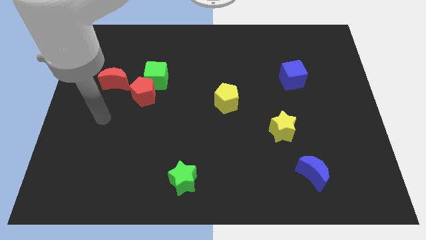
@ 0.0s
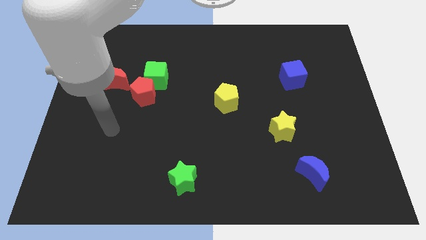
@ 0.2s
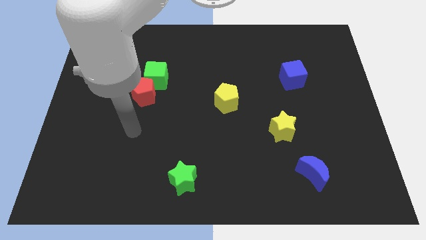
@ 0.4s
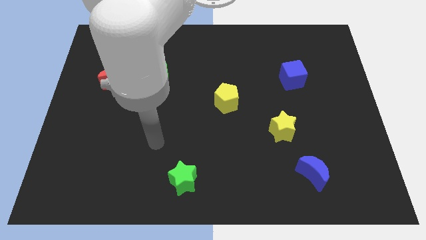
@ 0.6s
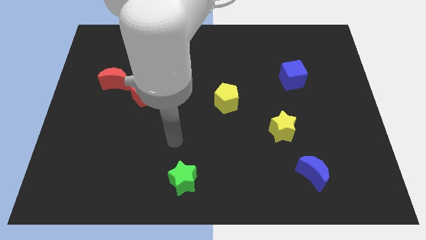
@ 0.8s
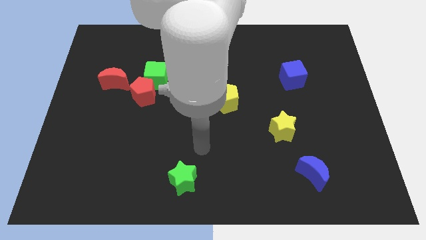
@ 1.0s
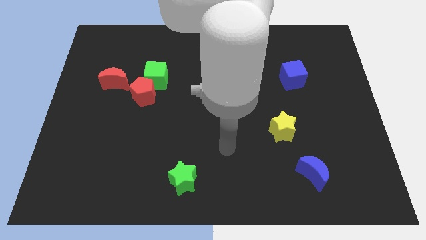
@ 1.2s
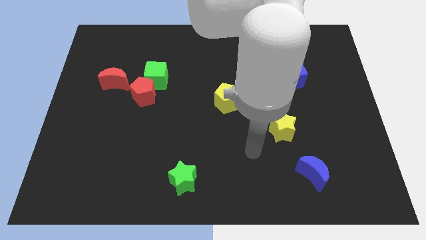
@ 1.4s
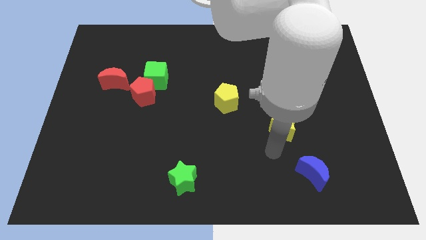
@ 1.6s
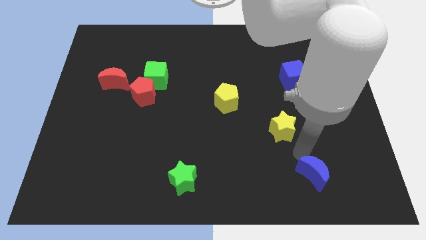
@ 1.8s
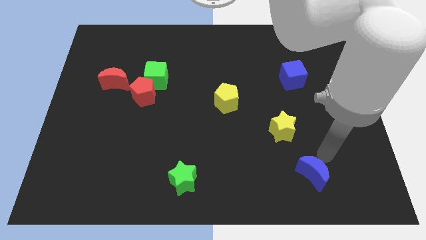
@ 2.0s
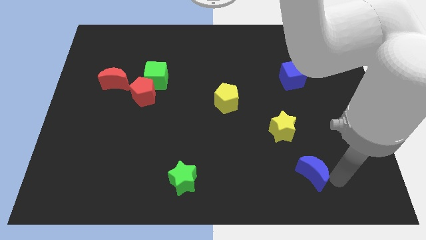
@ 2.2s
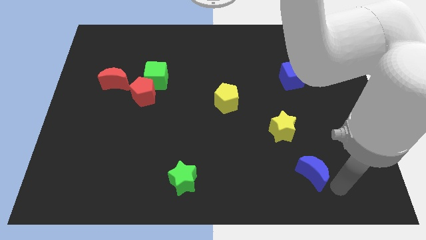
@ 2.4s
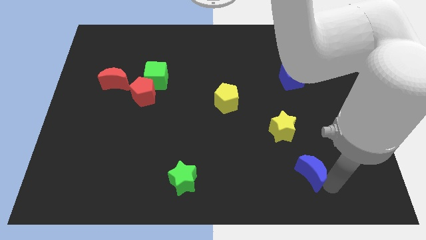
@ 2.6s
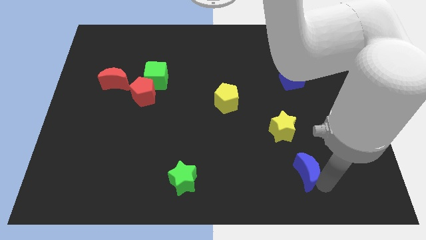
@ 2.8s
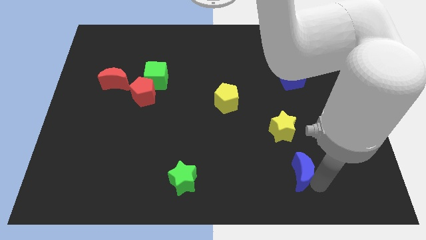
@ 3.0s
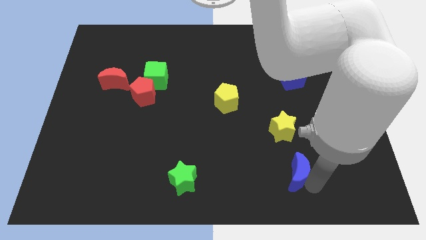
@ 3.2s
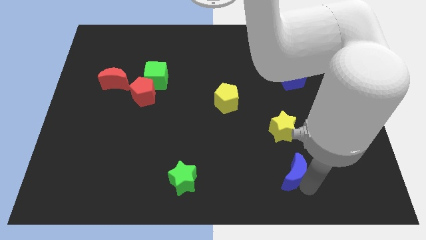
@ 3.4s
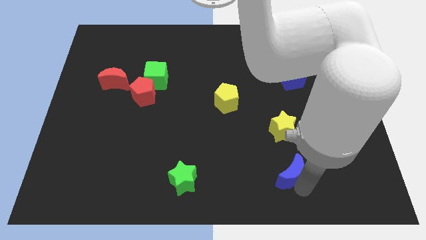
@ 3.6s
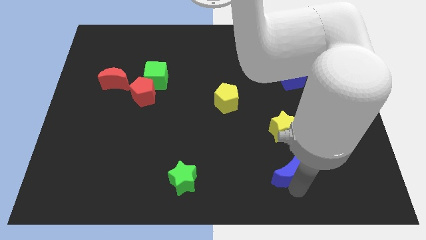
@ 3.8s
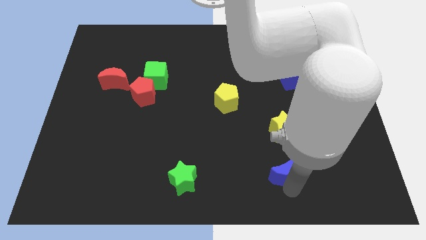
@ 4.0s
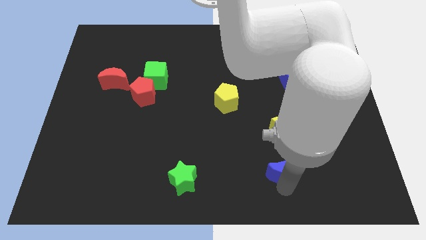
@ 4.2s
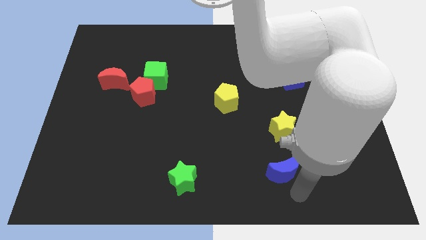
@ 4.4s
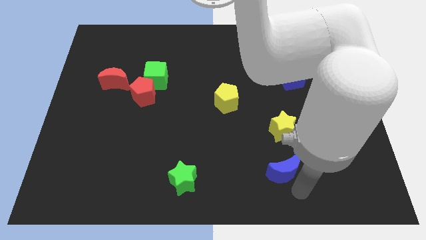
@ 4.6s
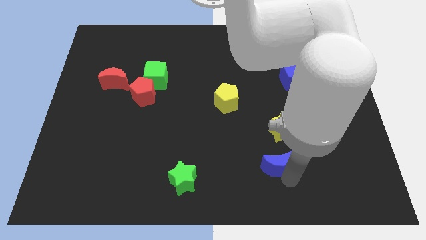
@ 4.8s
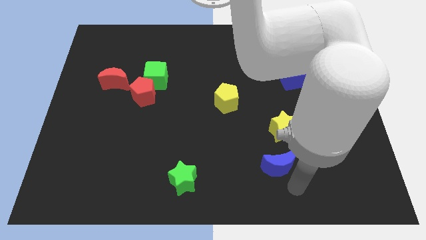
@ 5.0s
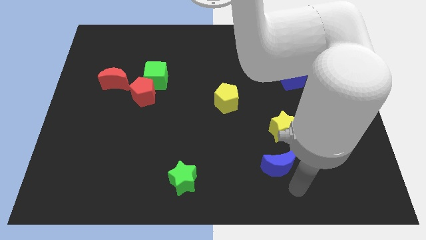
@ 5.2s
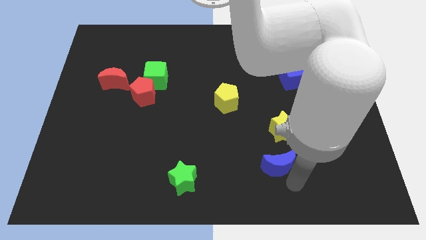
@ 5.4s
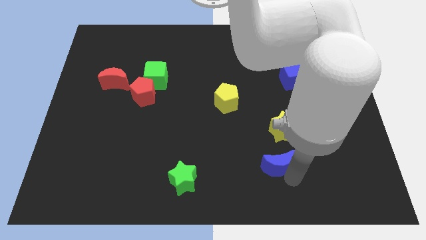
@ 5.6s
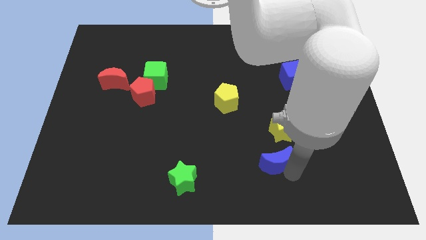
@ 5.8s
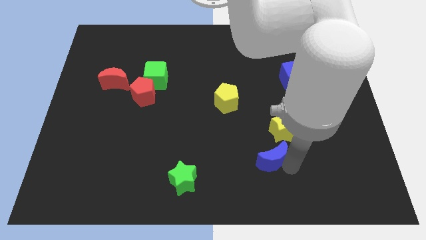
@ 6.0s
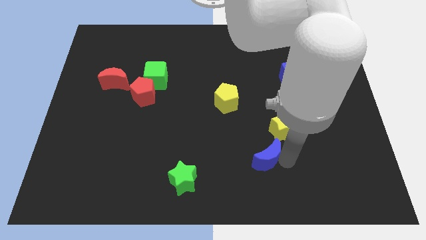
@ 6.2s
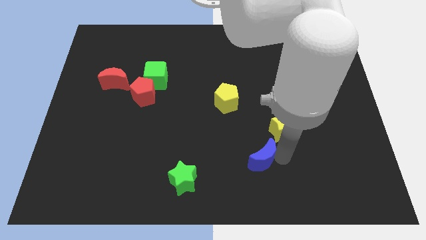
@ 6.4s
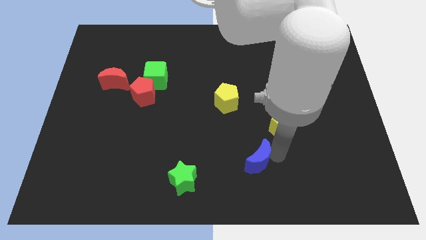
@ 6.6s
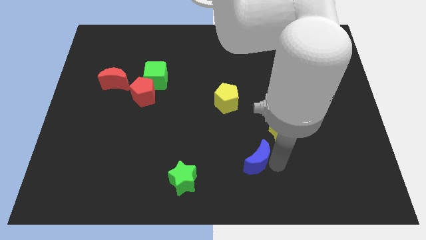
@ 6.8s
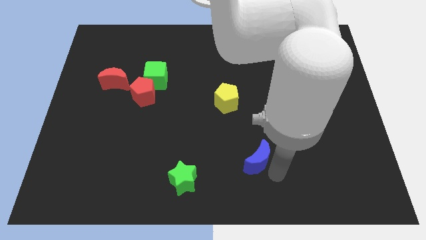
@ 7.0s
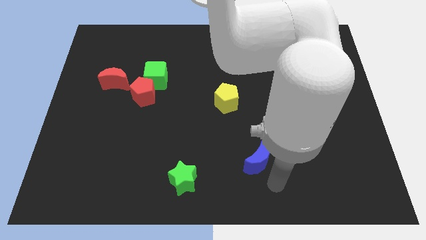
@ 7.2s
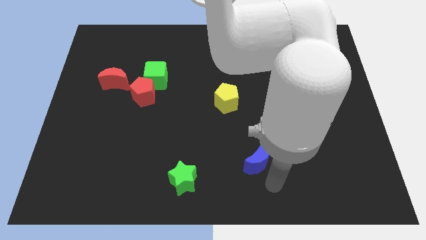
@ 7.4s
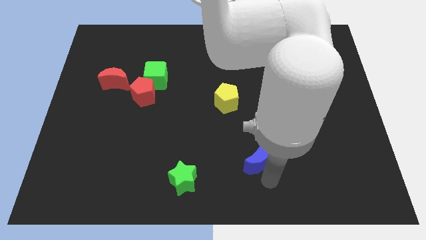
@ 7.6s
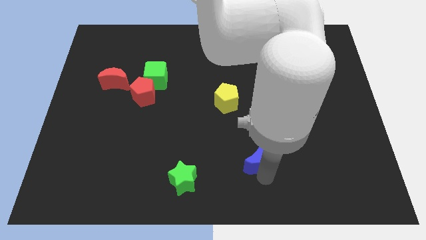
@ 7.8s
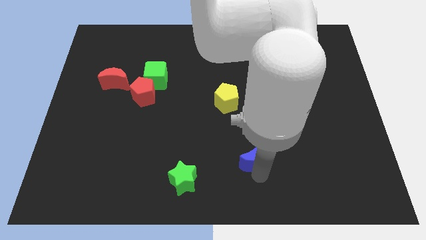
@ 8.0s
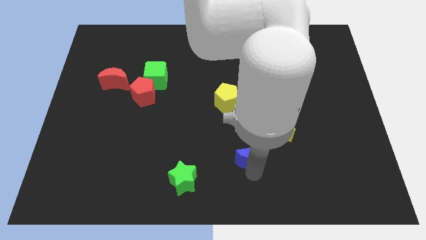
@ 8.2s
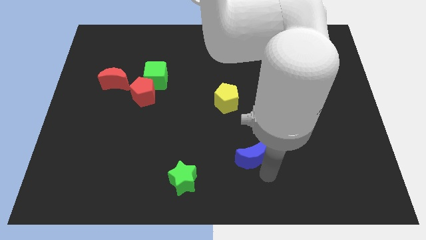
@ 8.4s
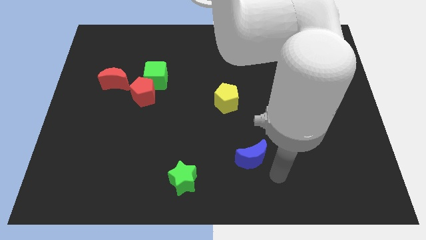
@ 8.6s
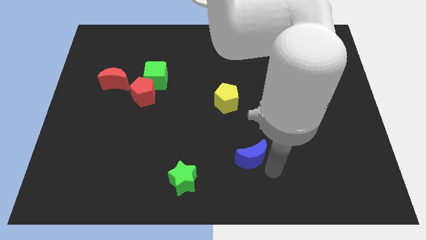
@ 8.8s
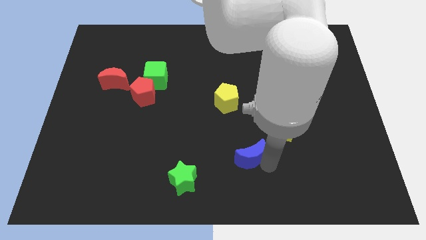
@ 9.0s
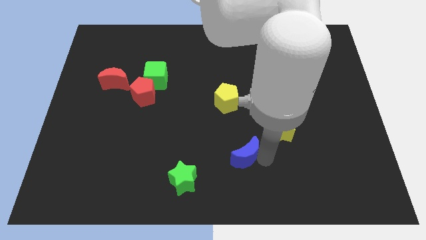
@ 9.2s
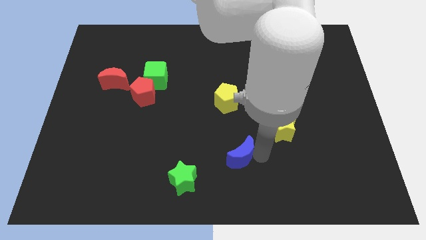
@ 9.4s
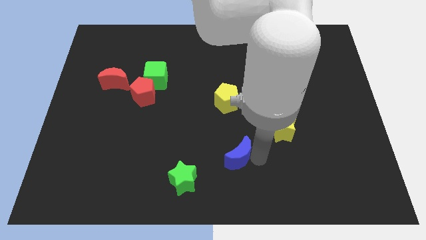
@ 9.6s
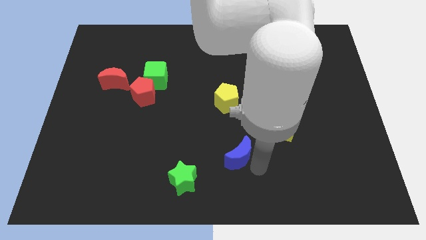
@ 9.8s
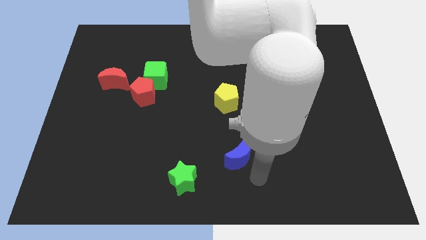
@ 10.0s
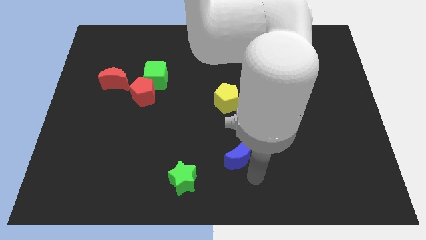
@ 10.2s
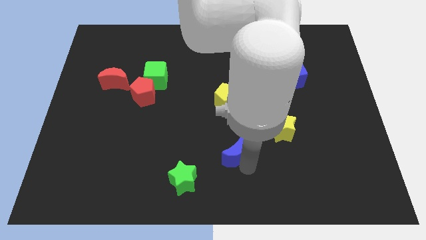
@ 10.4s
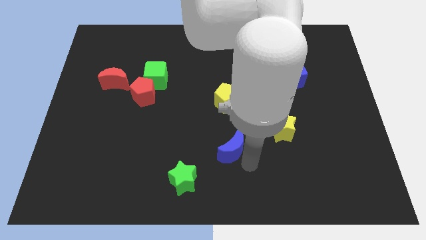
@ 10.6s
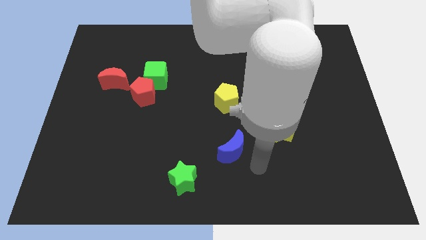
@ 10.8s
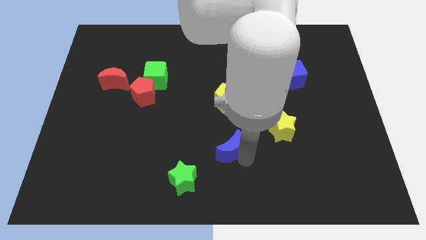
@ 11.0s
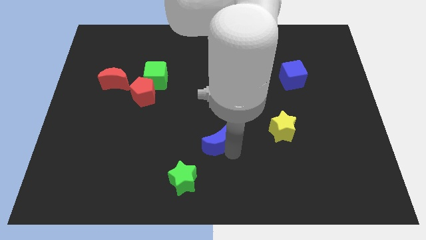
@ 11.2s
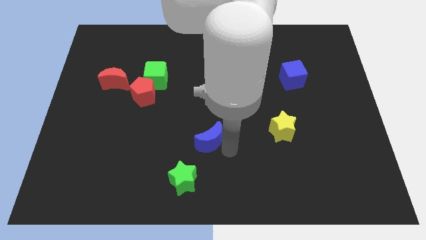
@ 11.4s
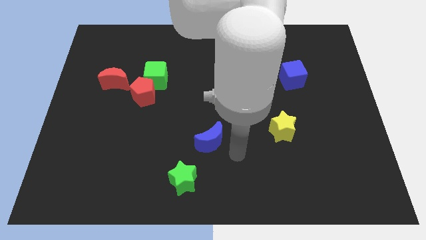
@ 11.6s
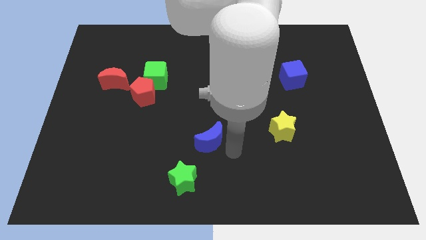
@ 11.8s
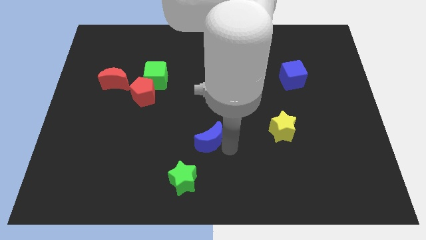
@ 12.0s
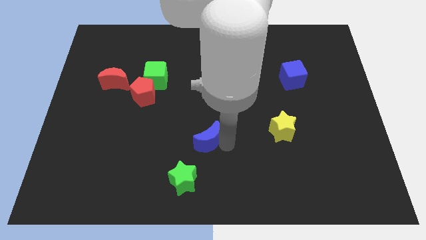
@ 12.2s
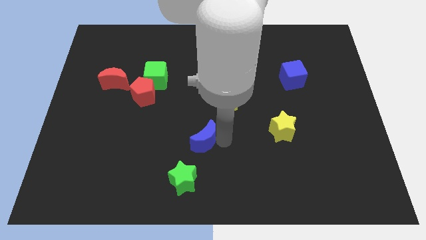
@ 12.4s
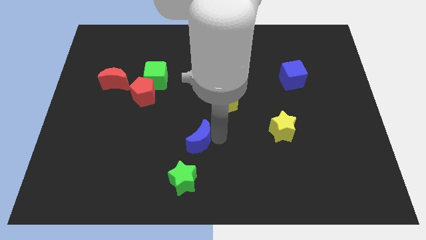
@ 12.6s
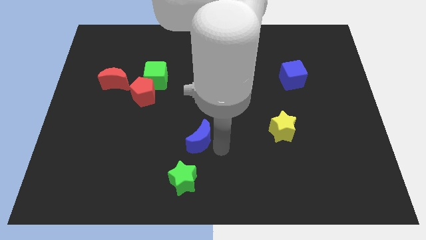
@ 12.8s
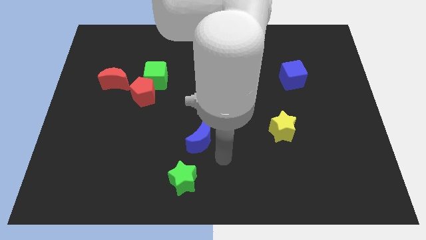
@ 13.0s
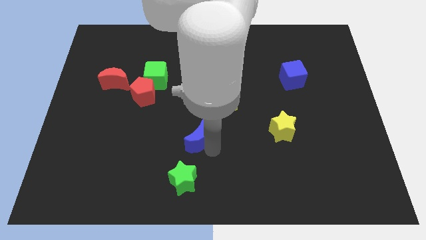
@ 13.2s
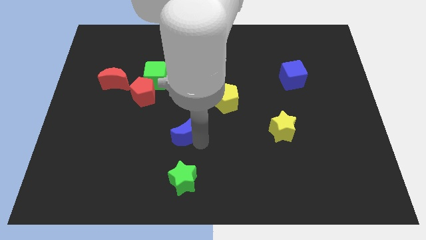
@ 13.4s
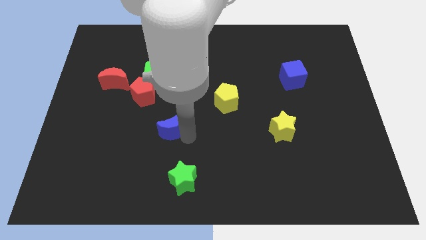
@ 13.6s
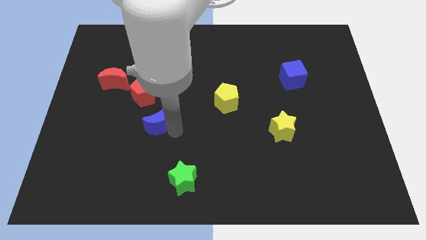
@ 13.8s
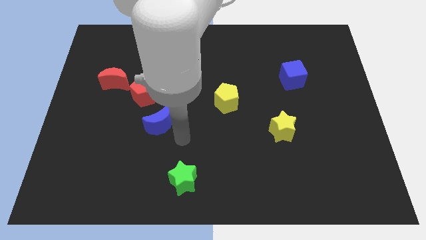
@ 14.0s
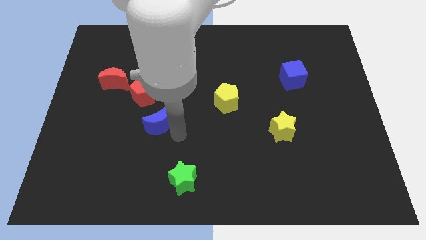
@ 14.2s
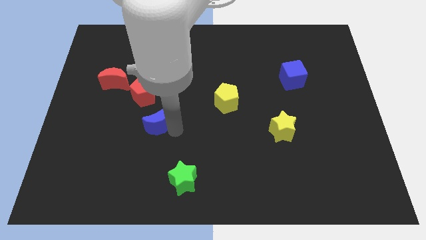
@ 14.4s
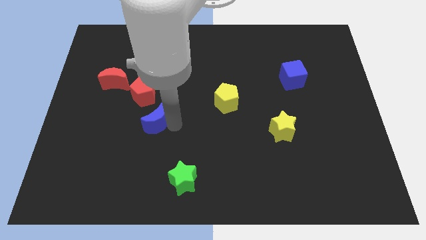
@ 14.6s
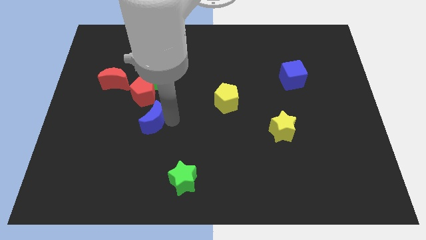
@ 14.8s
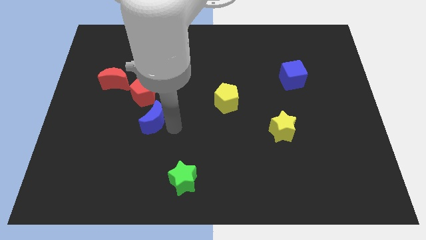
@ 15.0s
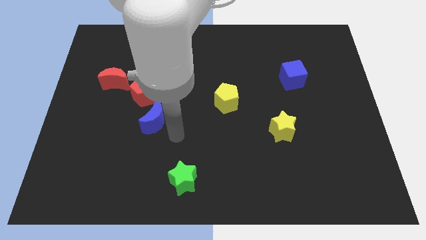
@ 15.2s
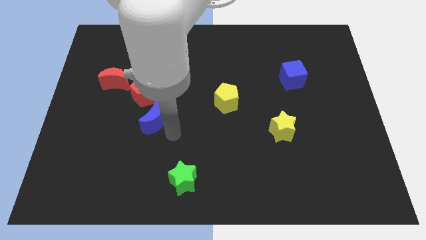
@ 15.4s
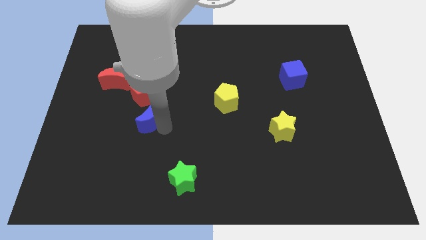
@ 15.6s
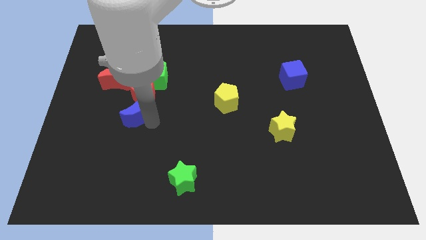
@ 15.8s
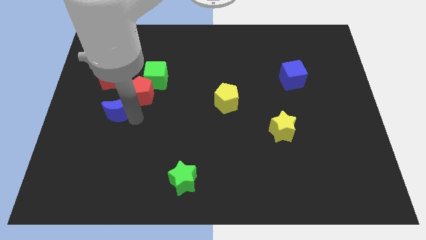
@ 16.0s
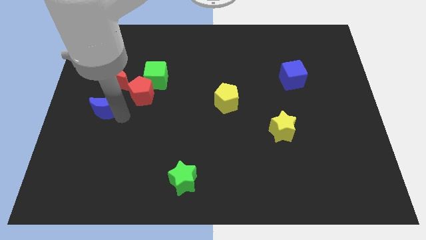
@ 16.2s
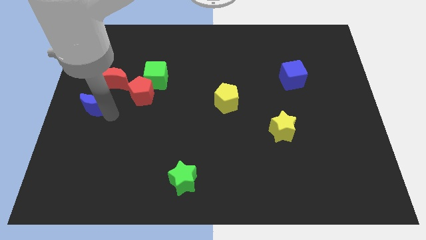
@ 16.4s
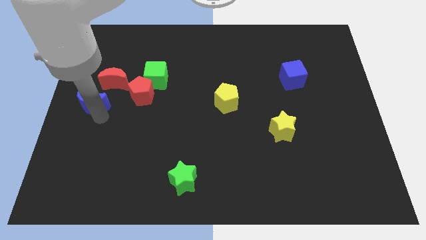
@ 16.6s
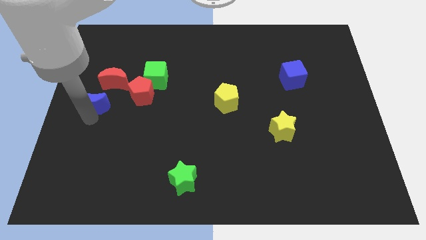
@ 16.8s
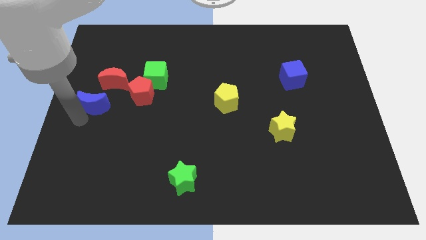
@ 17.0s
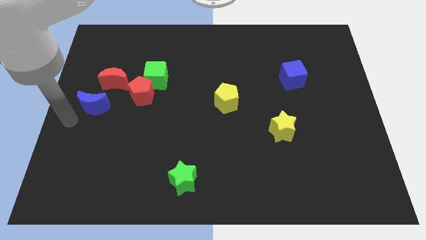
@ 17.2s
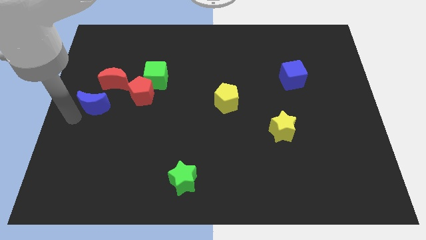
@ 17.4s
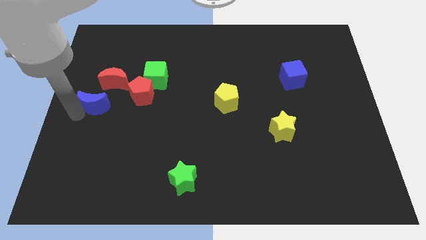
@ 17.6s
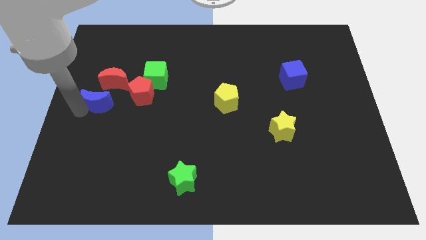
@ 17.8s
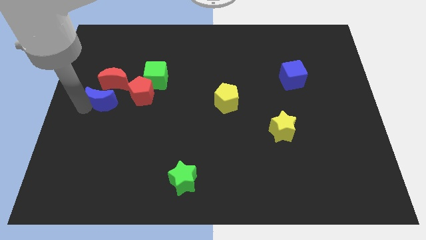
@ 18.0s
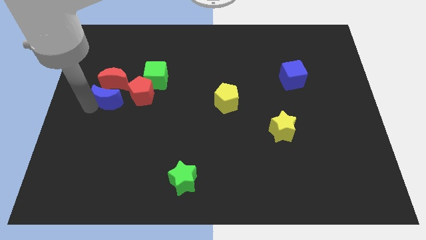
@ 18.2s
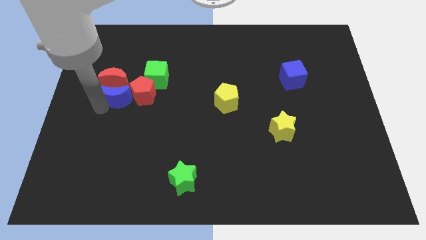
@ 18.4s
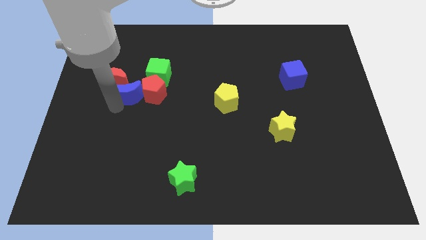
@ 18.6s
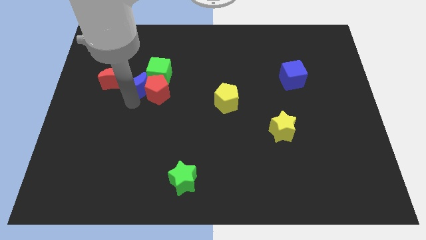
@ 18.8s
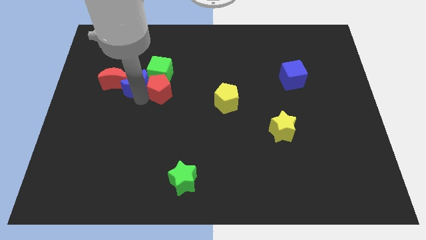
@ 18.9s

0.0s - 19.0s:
put the blue moon to the left of the green cube
